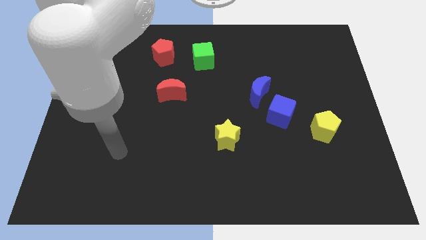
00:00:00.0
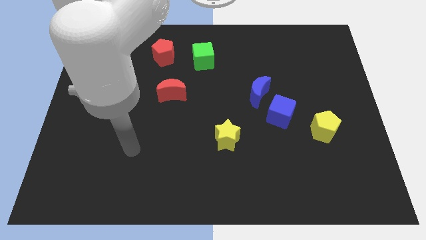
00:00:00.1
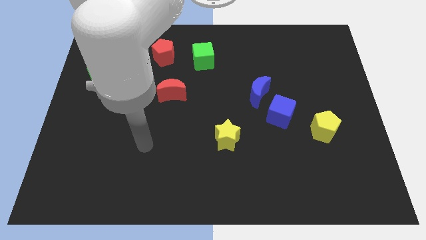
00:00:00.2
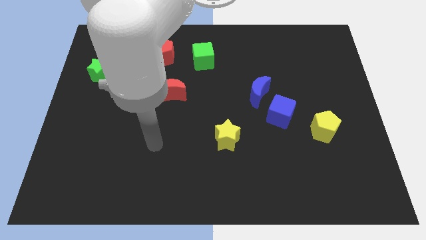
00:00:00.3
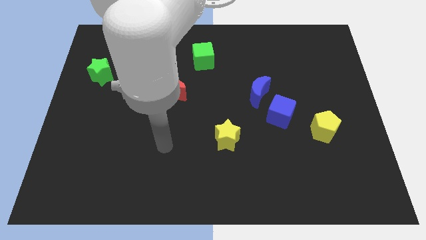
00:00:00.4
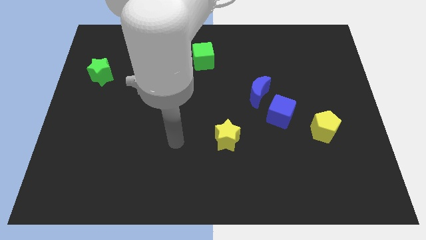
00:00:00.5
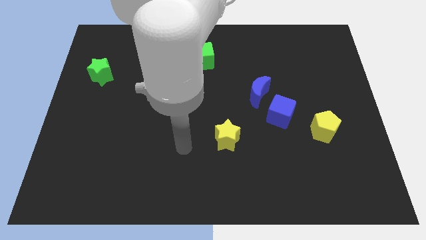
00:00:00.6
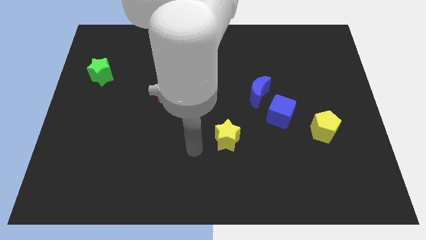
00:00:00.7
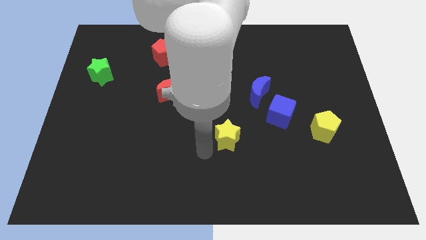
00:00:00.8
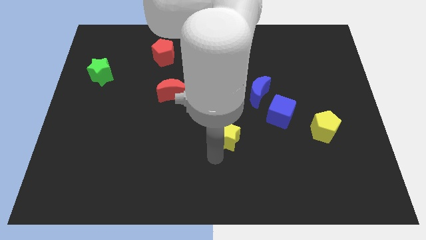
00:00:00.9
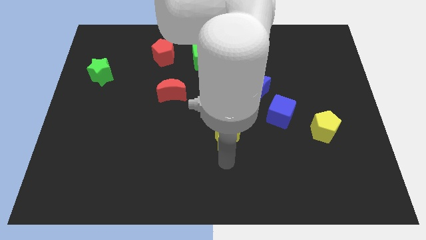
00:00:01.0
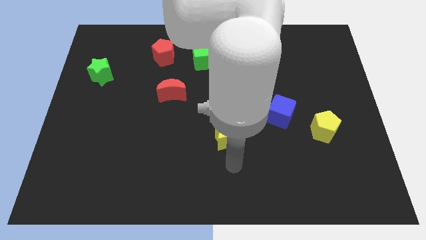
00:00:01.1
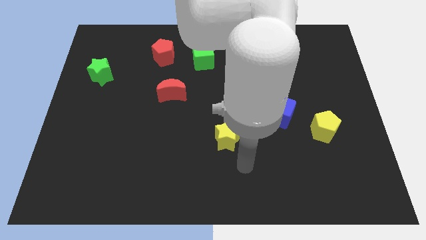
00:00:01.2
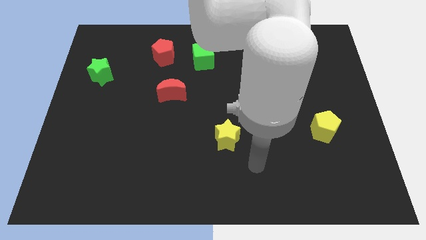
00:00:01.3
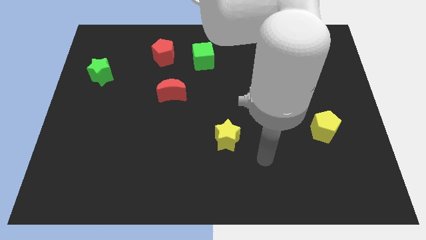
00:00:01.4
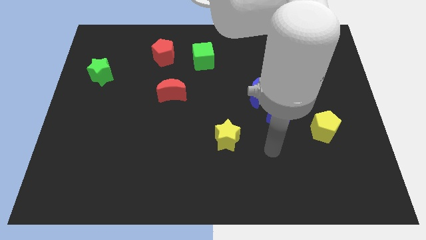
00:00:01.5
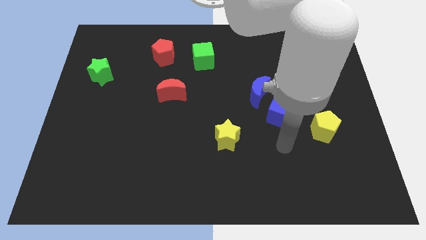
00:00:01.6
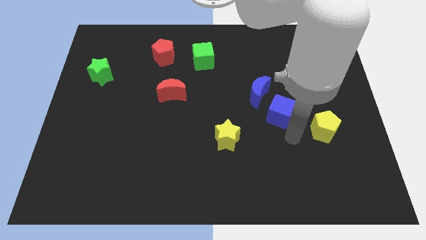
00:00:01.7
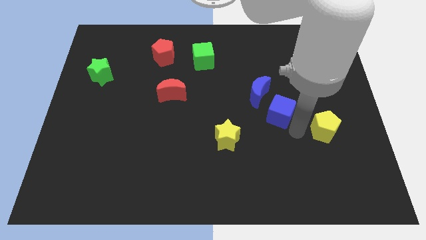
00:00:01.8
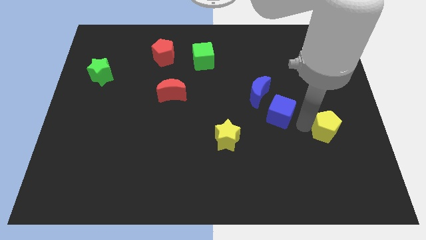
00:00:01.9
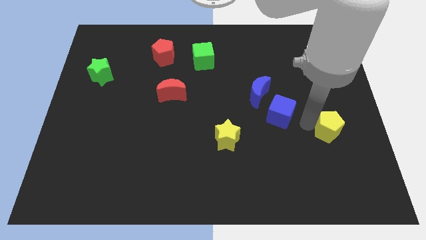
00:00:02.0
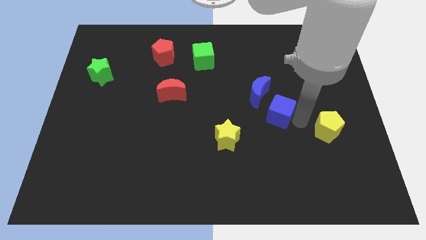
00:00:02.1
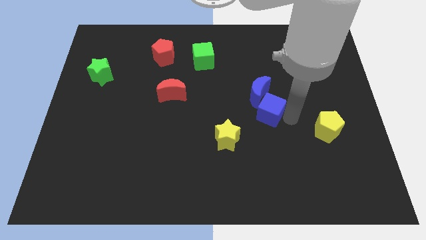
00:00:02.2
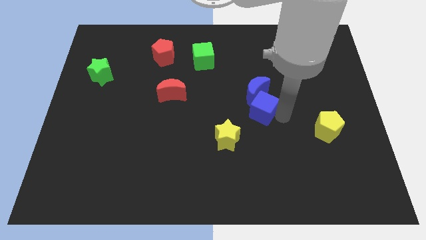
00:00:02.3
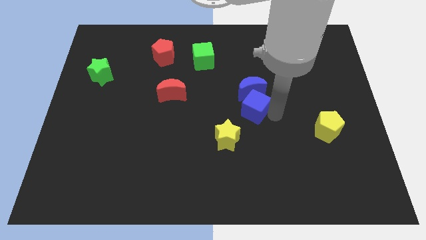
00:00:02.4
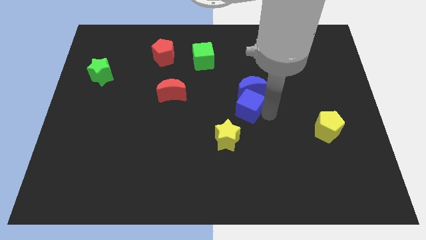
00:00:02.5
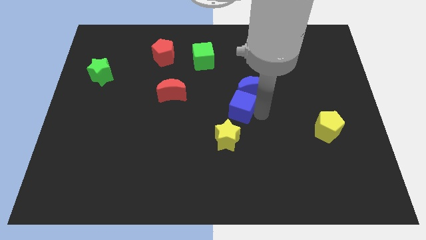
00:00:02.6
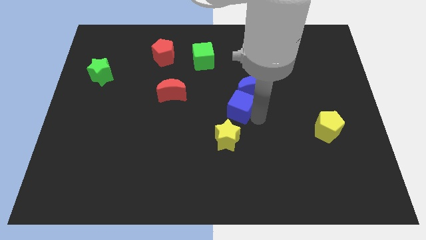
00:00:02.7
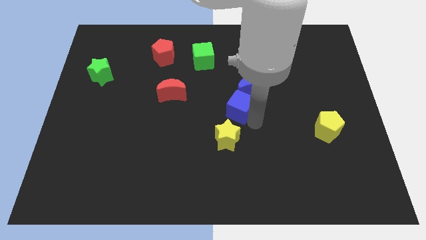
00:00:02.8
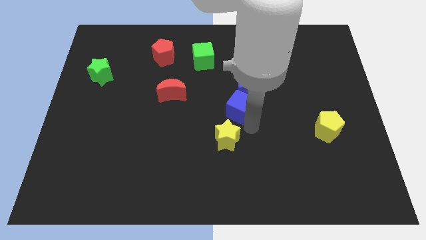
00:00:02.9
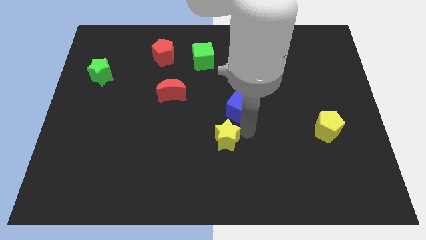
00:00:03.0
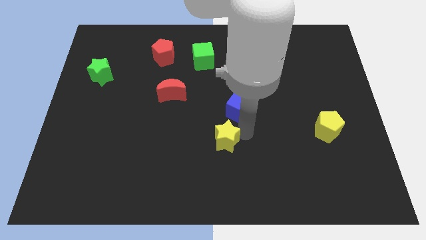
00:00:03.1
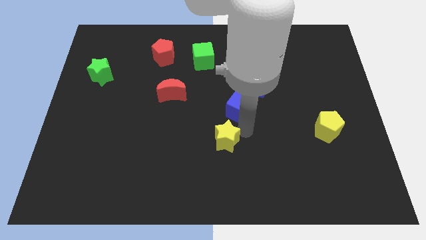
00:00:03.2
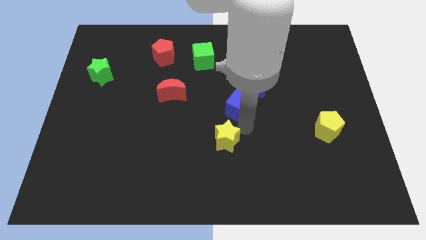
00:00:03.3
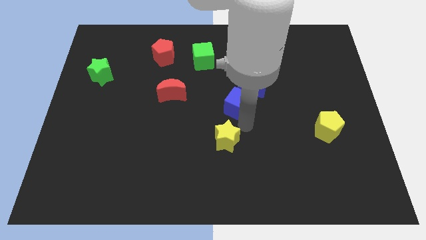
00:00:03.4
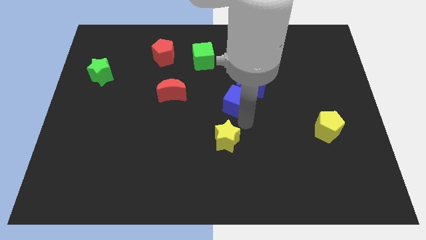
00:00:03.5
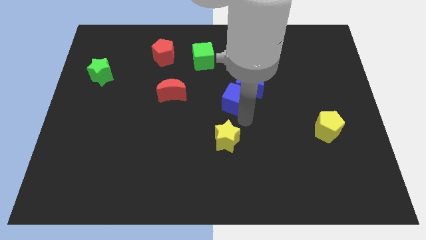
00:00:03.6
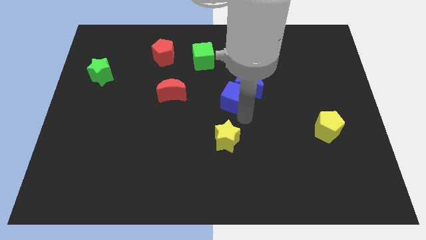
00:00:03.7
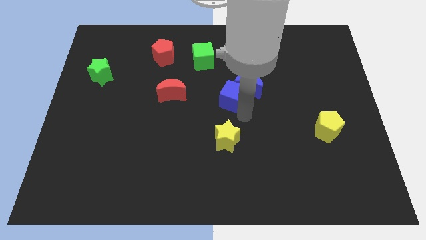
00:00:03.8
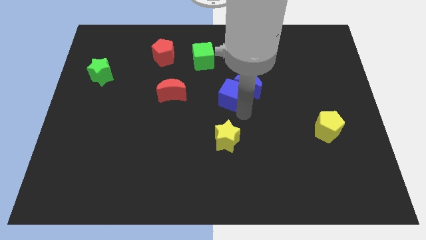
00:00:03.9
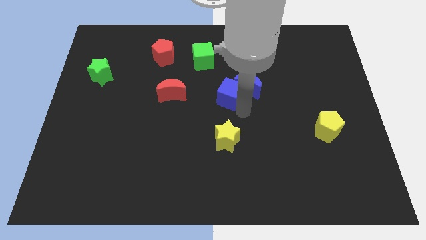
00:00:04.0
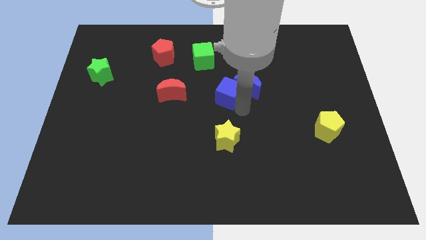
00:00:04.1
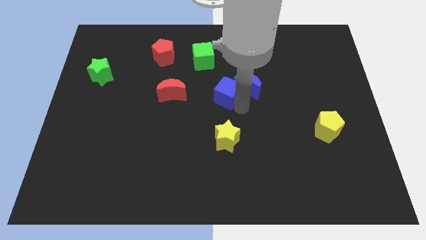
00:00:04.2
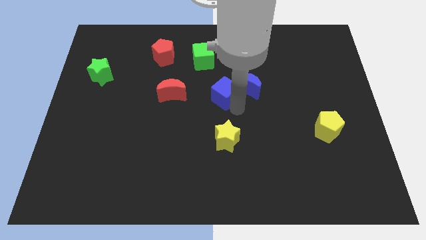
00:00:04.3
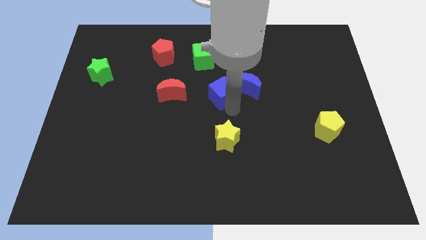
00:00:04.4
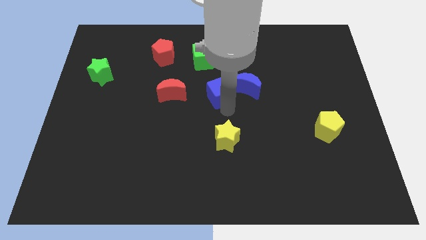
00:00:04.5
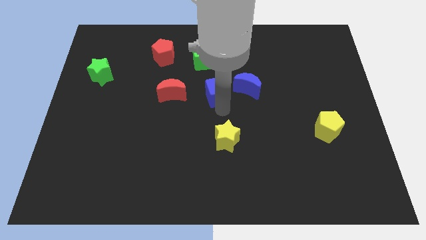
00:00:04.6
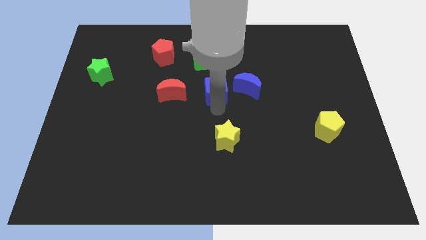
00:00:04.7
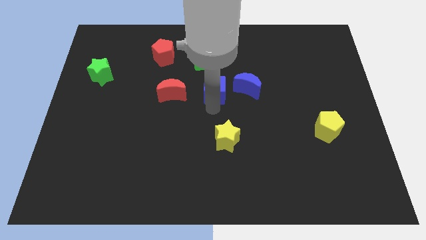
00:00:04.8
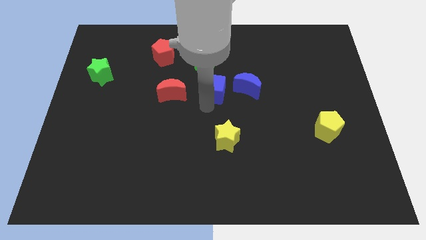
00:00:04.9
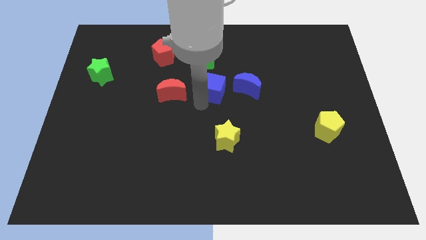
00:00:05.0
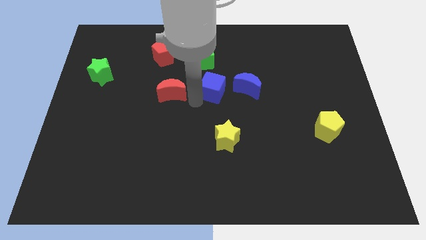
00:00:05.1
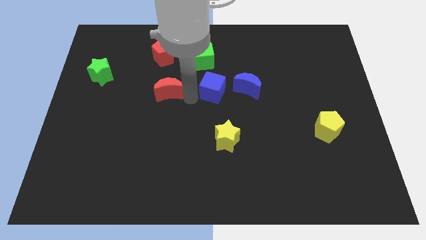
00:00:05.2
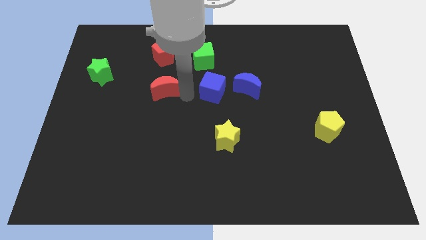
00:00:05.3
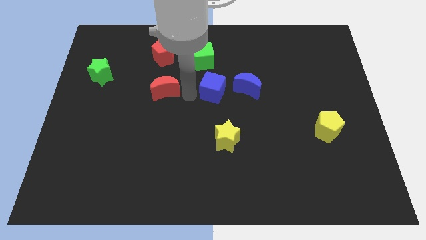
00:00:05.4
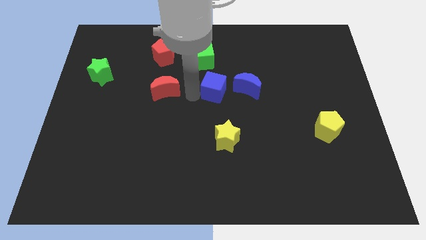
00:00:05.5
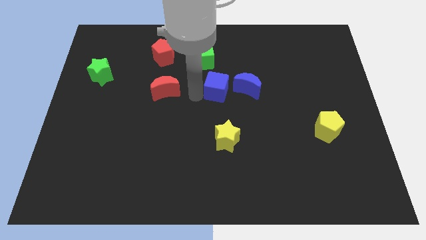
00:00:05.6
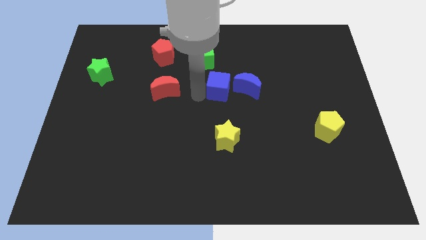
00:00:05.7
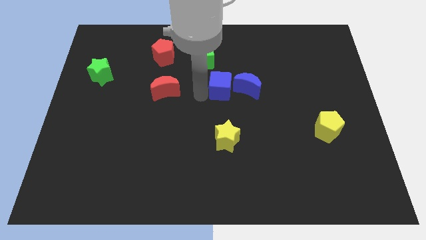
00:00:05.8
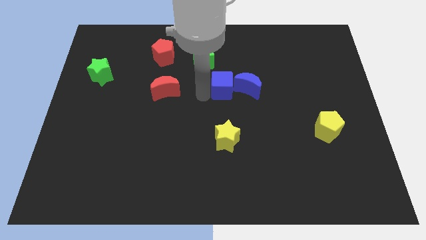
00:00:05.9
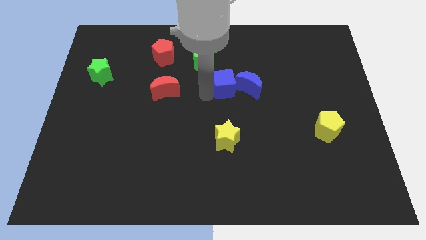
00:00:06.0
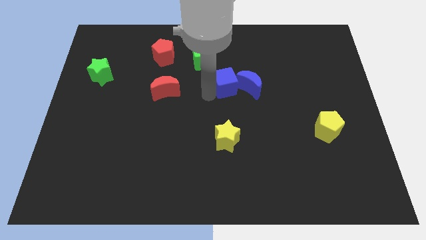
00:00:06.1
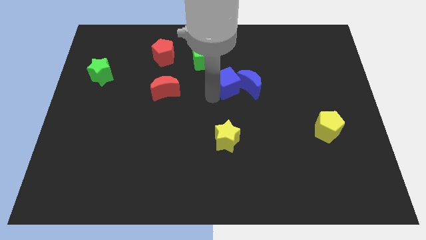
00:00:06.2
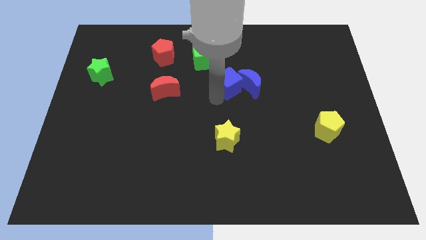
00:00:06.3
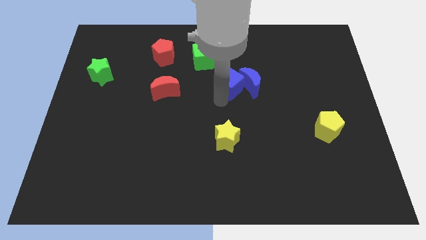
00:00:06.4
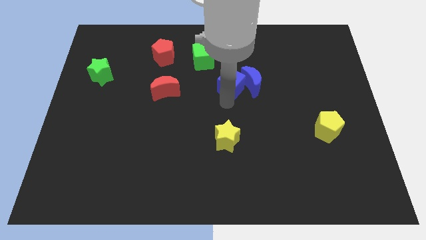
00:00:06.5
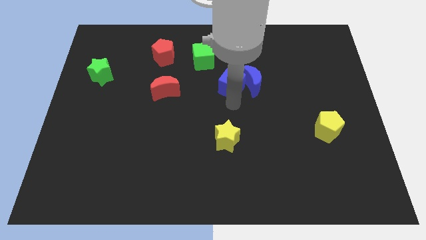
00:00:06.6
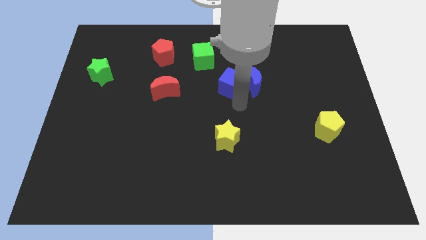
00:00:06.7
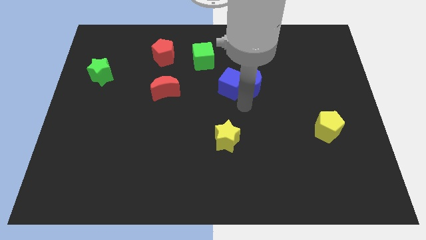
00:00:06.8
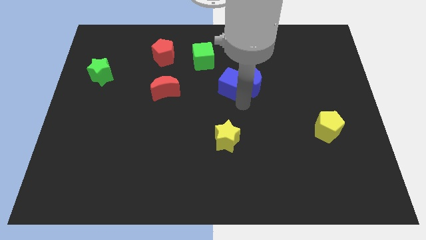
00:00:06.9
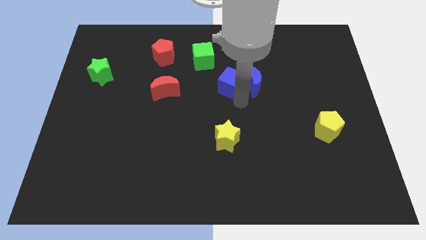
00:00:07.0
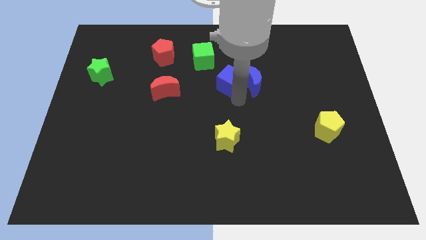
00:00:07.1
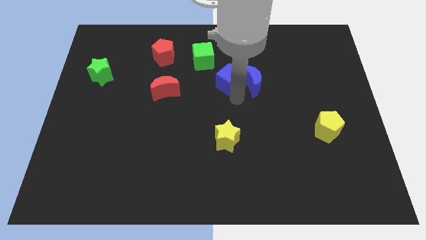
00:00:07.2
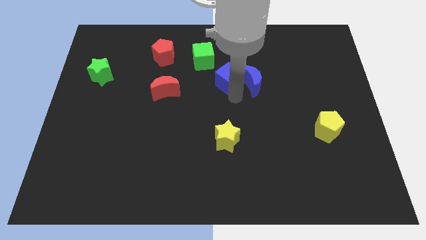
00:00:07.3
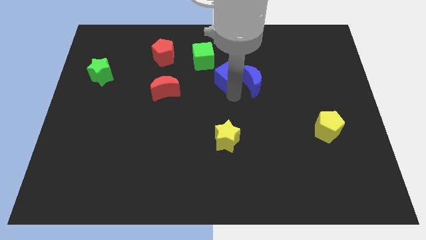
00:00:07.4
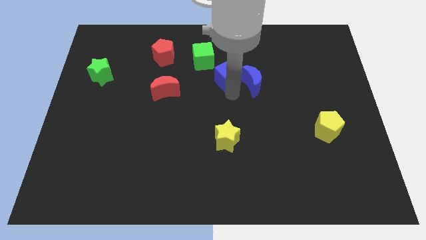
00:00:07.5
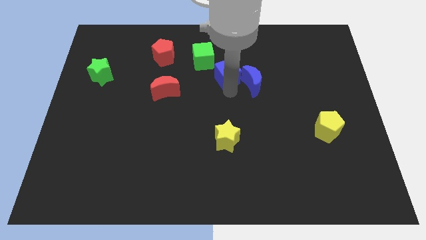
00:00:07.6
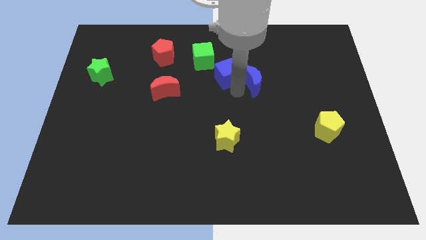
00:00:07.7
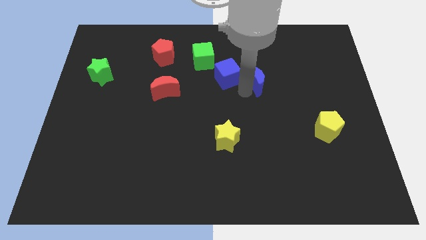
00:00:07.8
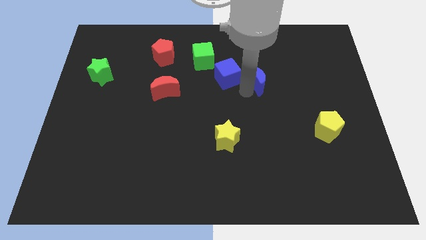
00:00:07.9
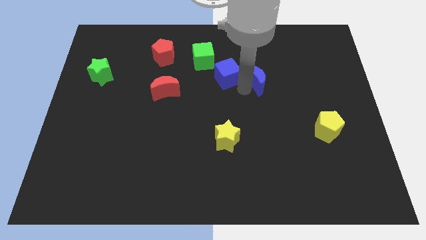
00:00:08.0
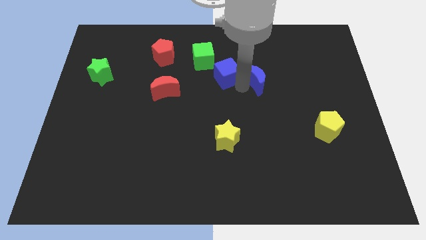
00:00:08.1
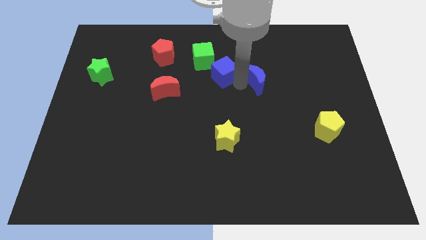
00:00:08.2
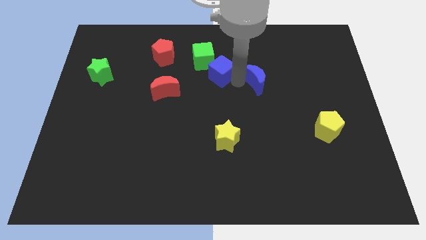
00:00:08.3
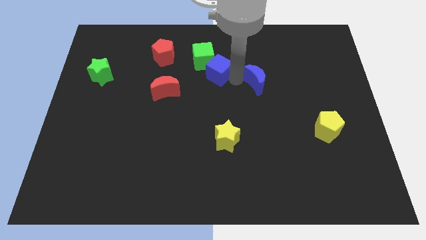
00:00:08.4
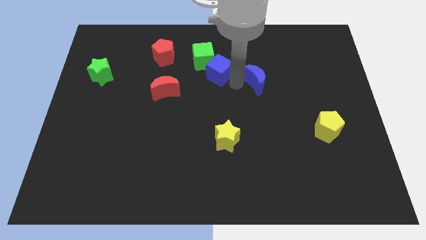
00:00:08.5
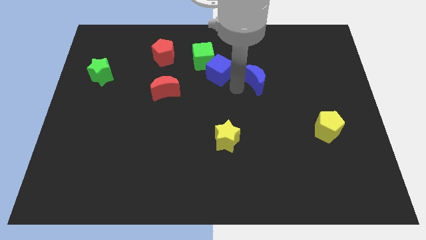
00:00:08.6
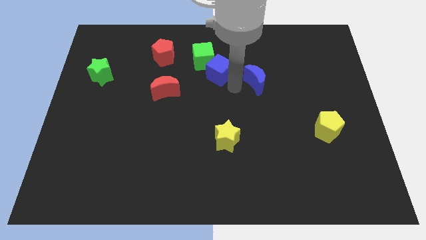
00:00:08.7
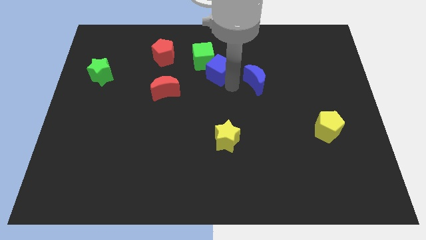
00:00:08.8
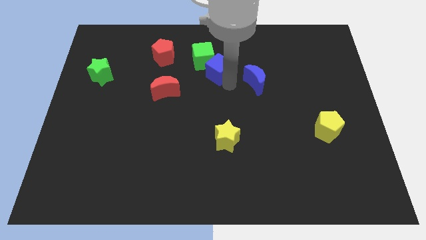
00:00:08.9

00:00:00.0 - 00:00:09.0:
push the blue cube towards the green cube
